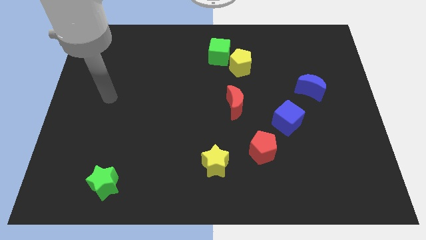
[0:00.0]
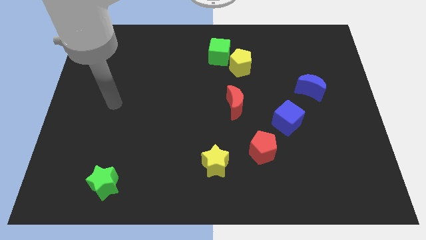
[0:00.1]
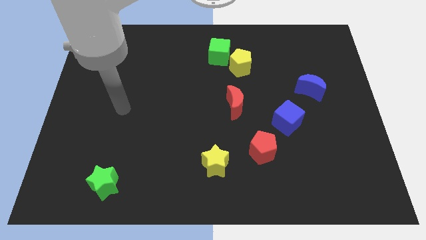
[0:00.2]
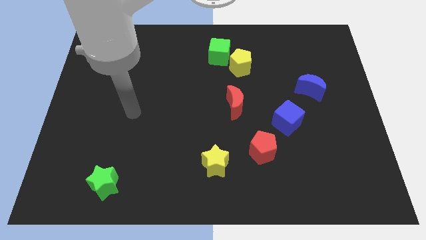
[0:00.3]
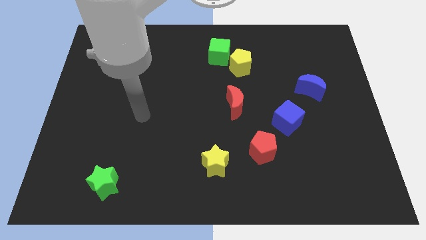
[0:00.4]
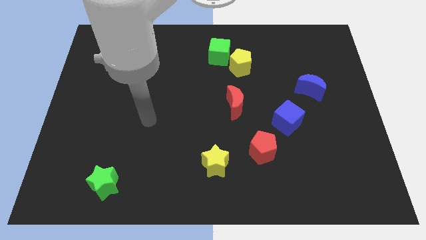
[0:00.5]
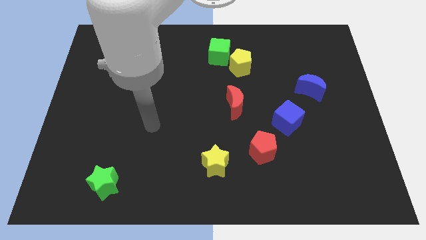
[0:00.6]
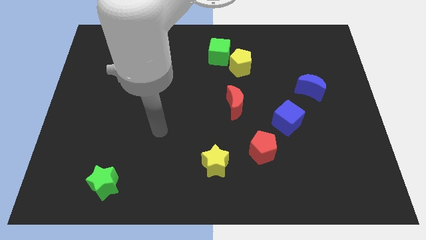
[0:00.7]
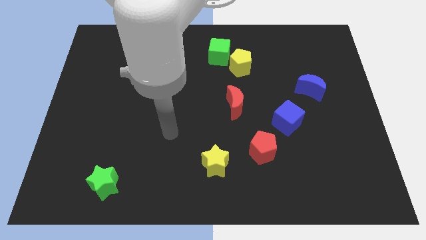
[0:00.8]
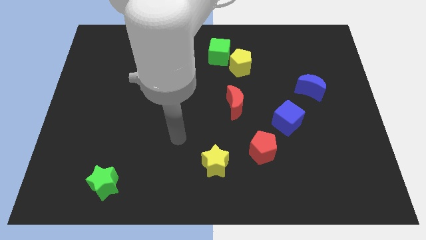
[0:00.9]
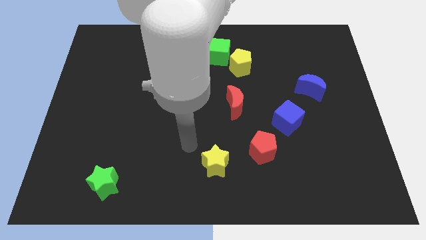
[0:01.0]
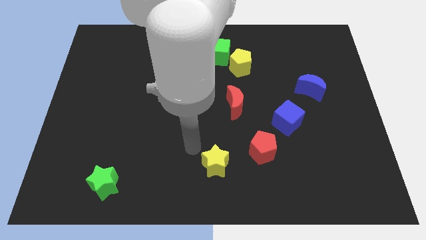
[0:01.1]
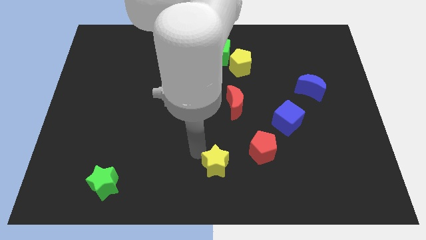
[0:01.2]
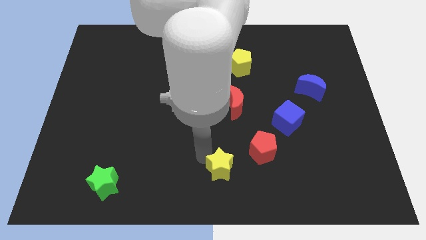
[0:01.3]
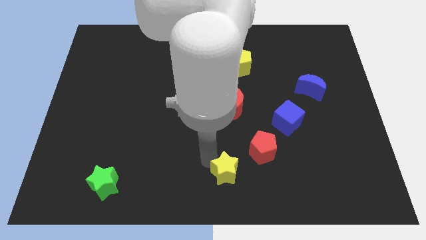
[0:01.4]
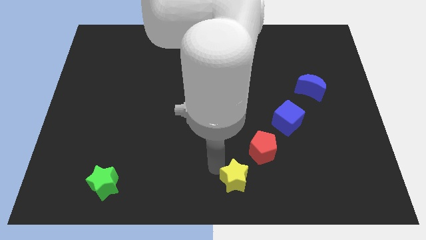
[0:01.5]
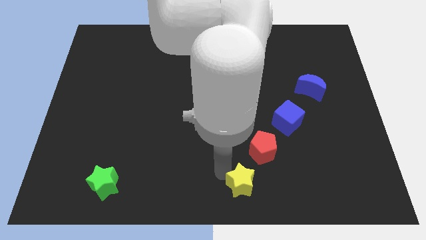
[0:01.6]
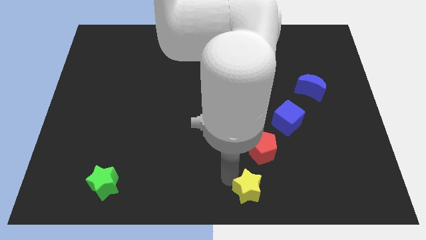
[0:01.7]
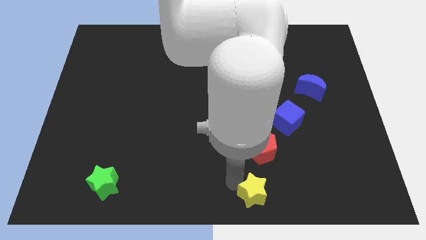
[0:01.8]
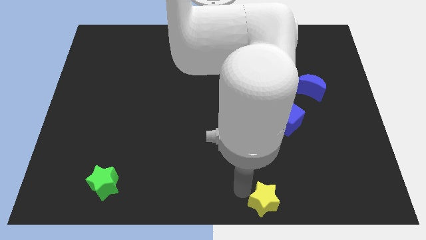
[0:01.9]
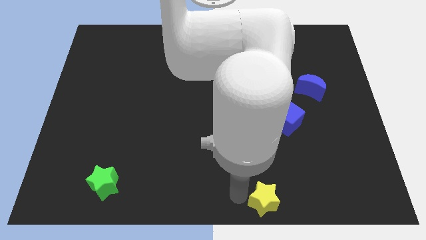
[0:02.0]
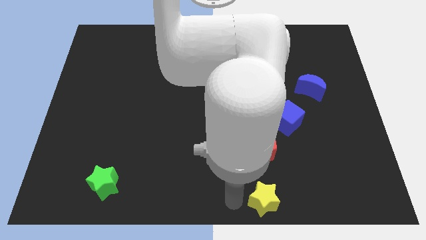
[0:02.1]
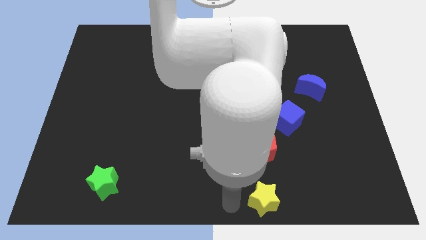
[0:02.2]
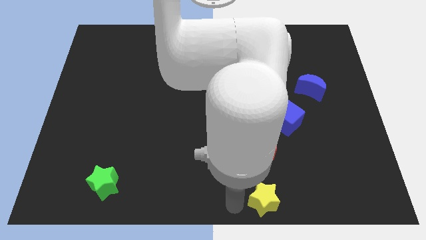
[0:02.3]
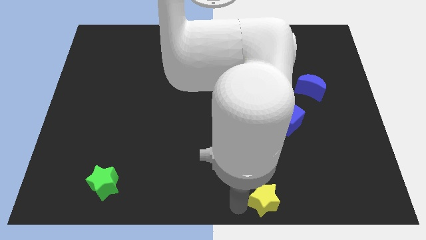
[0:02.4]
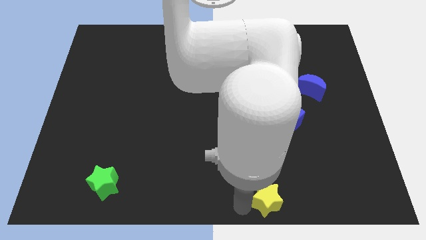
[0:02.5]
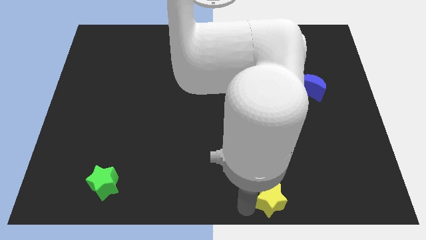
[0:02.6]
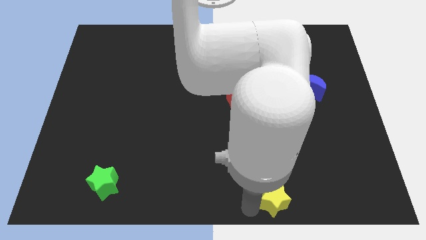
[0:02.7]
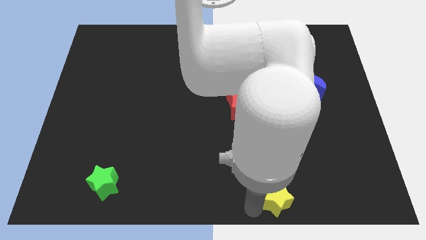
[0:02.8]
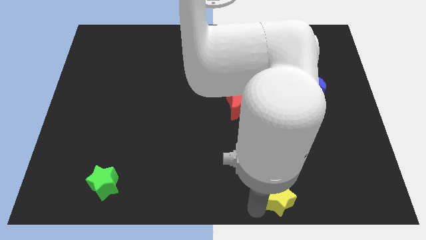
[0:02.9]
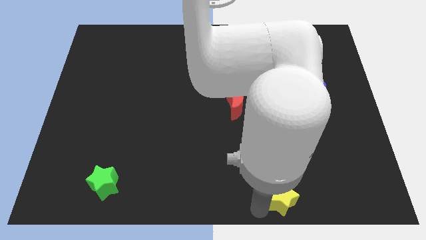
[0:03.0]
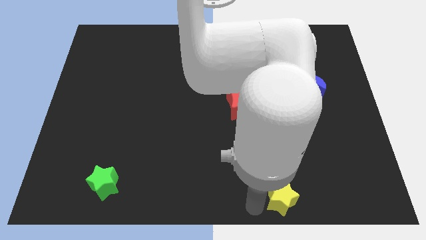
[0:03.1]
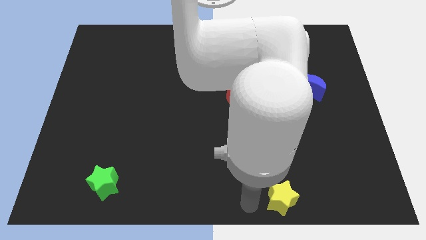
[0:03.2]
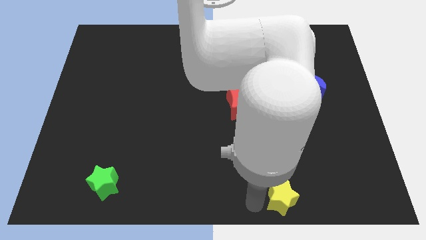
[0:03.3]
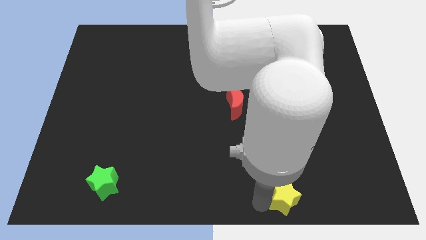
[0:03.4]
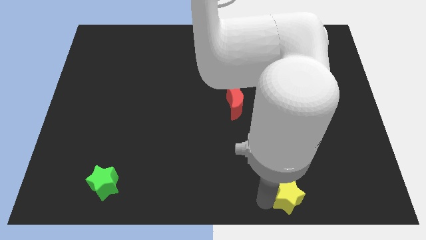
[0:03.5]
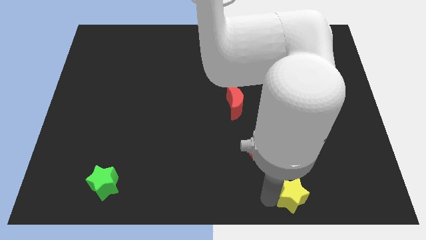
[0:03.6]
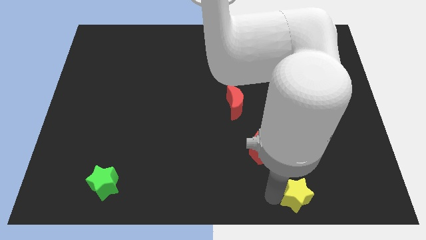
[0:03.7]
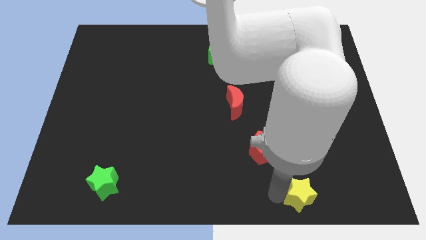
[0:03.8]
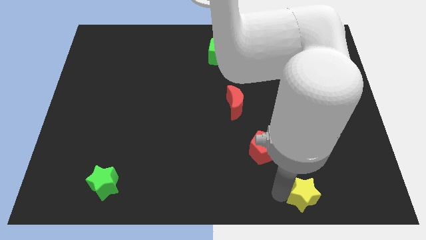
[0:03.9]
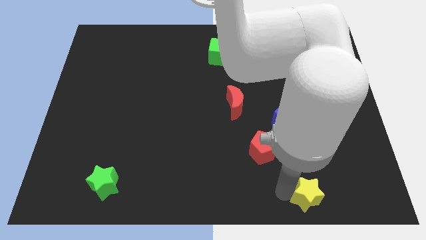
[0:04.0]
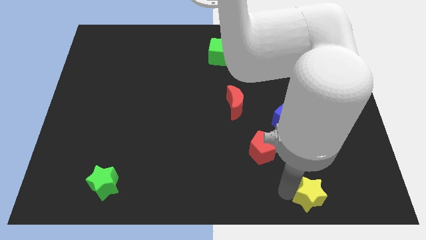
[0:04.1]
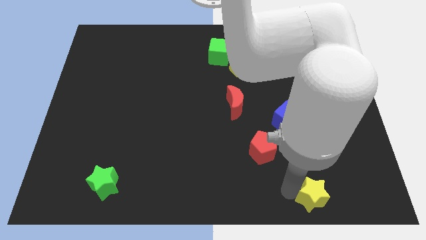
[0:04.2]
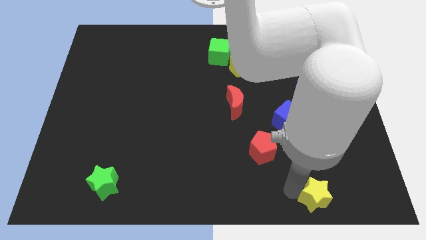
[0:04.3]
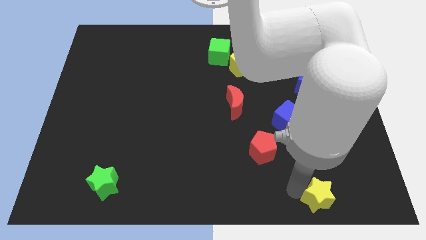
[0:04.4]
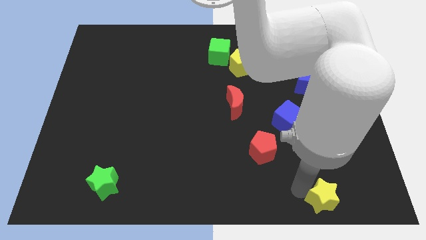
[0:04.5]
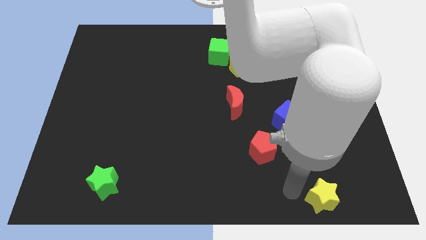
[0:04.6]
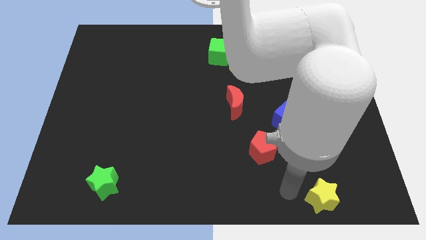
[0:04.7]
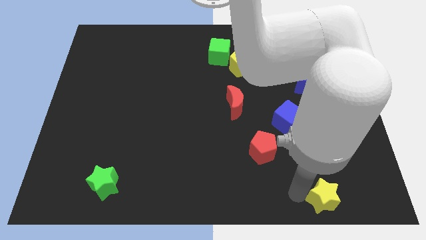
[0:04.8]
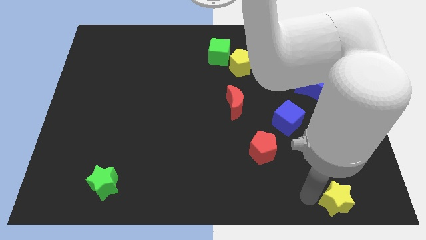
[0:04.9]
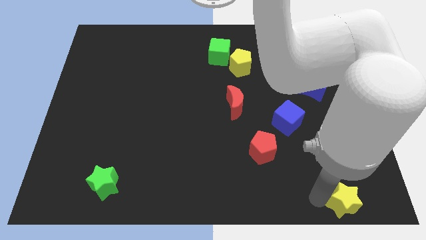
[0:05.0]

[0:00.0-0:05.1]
slide the yellow star to the bottom right
